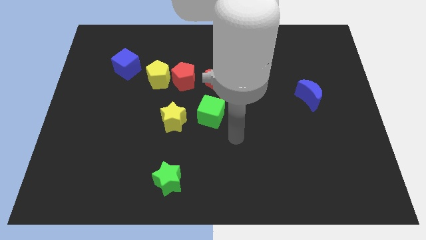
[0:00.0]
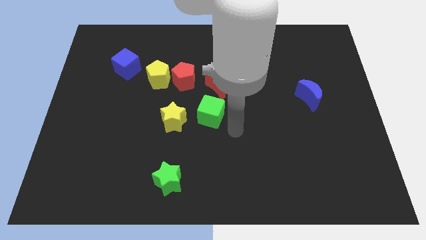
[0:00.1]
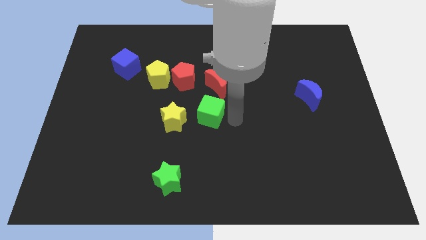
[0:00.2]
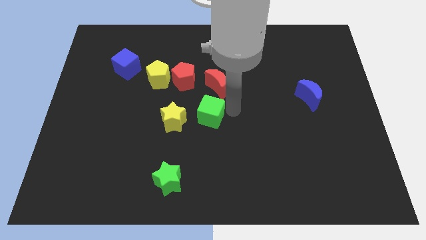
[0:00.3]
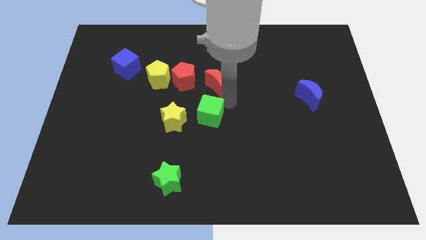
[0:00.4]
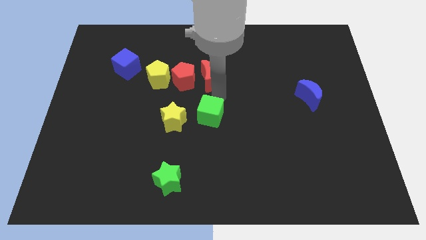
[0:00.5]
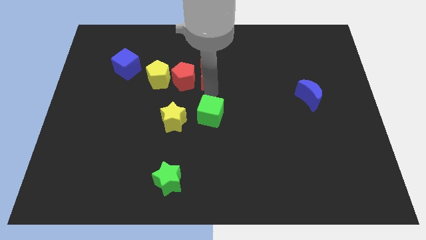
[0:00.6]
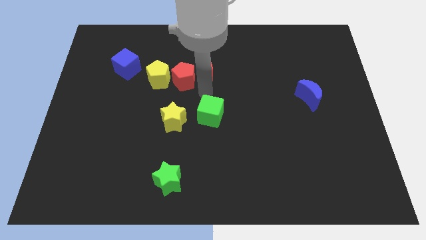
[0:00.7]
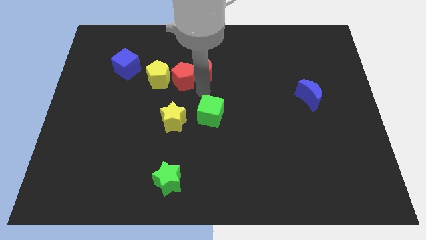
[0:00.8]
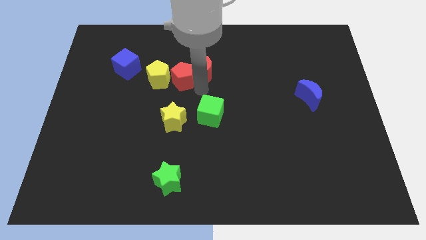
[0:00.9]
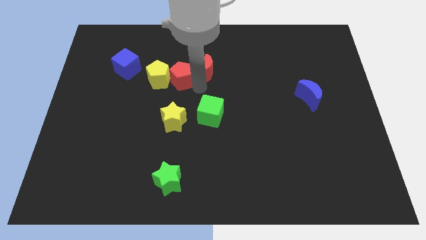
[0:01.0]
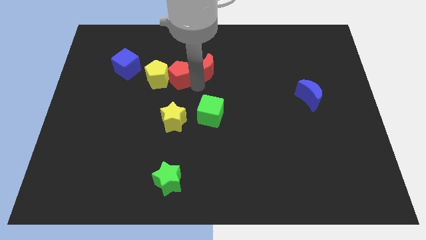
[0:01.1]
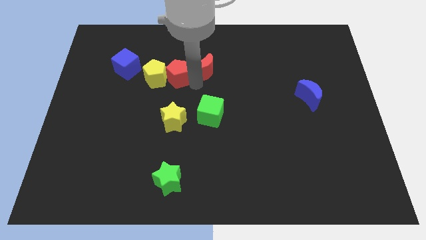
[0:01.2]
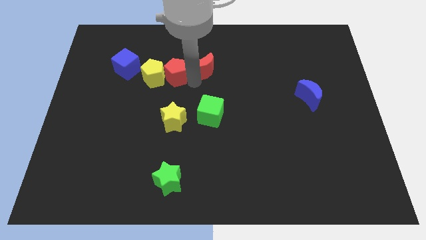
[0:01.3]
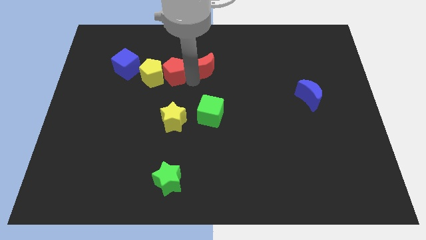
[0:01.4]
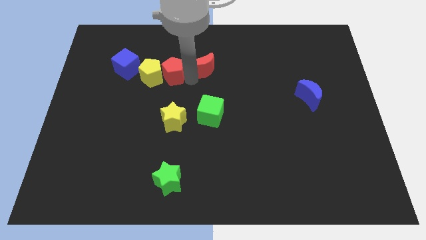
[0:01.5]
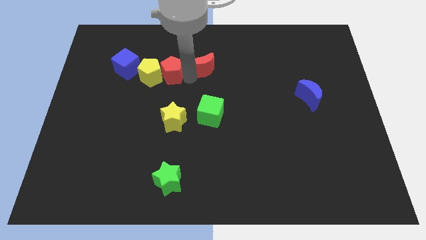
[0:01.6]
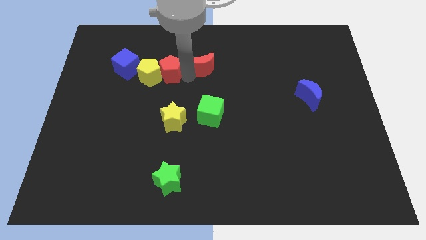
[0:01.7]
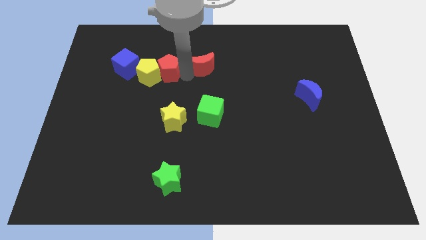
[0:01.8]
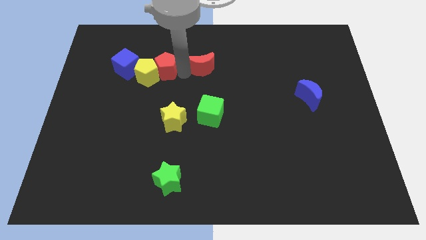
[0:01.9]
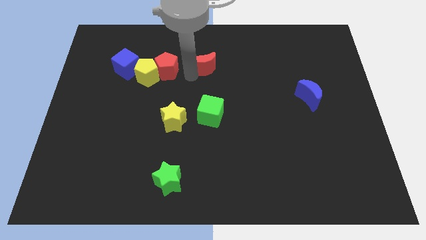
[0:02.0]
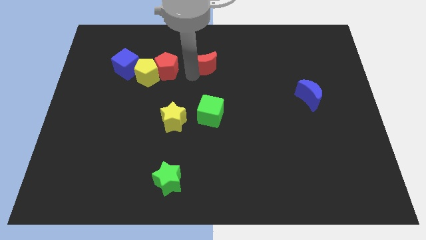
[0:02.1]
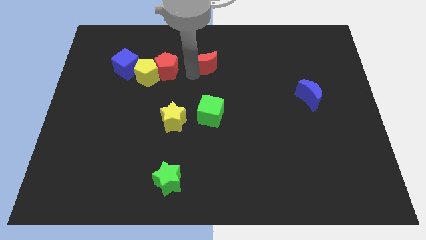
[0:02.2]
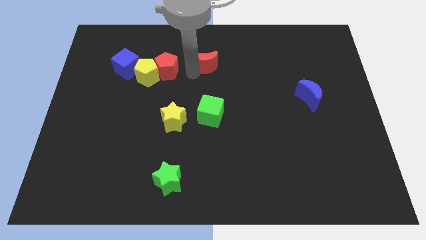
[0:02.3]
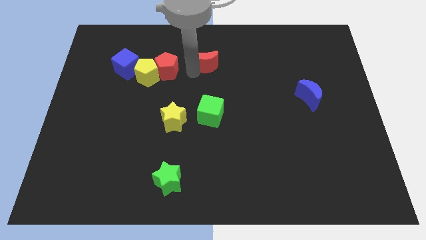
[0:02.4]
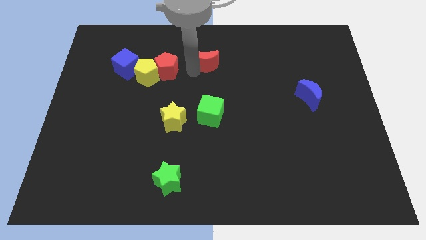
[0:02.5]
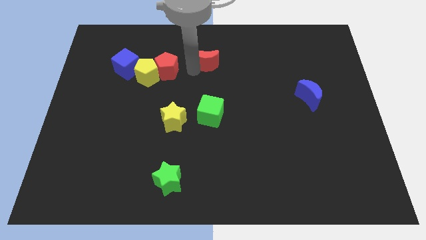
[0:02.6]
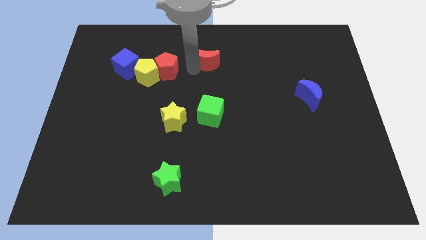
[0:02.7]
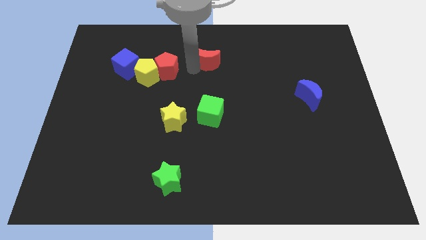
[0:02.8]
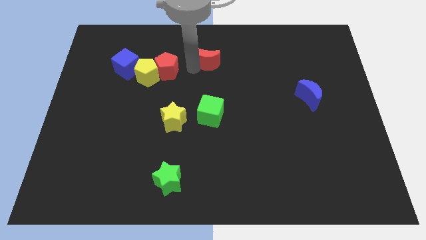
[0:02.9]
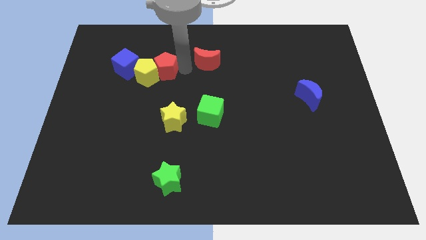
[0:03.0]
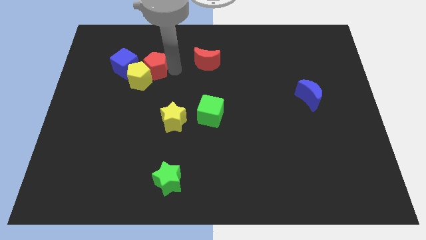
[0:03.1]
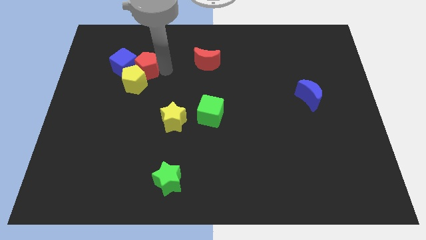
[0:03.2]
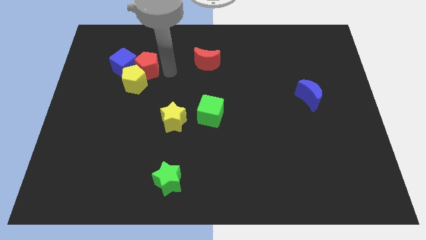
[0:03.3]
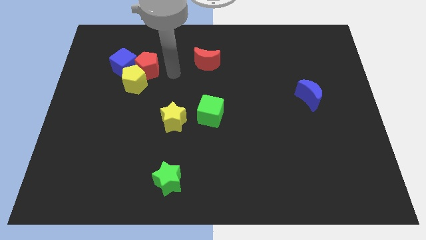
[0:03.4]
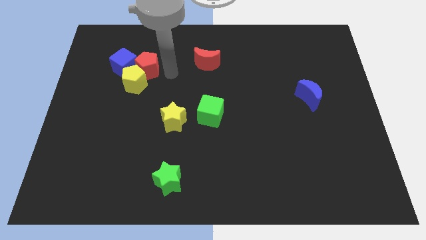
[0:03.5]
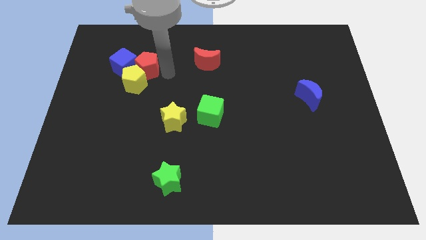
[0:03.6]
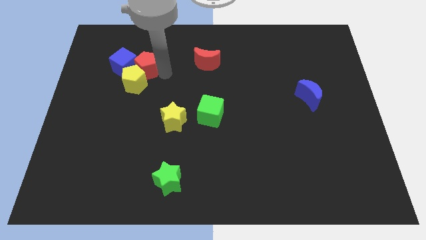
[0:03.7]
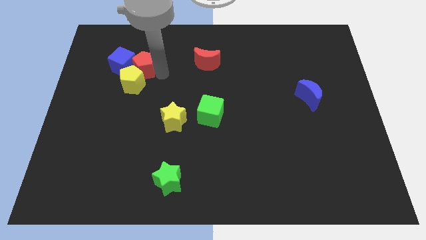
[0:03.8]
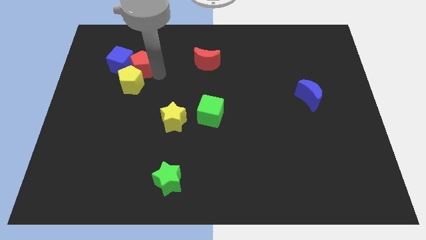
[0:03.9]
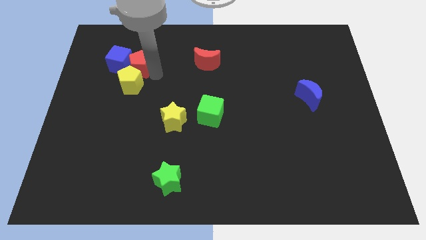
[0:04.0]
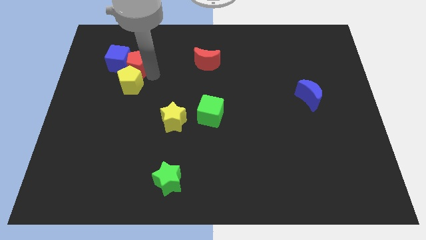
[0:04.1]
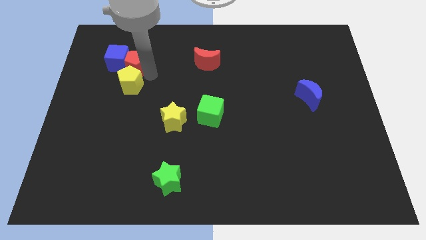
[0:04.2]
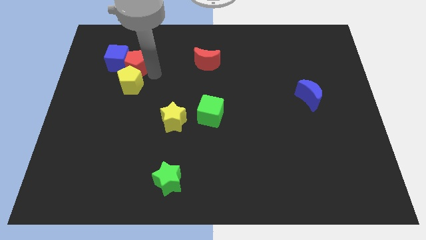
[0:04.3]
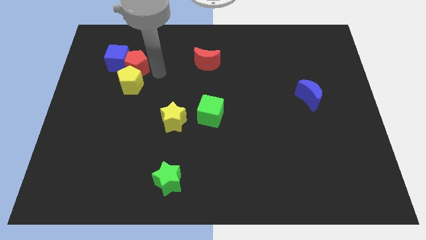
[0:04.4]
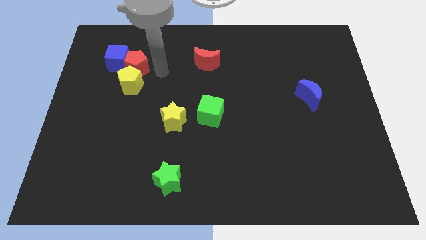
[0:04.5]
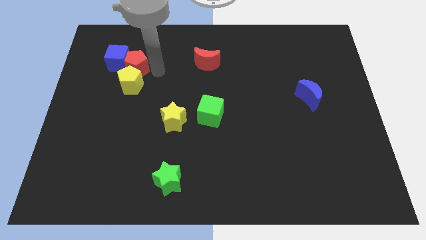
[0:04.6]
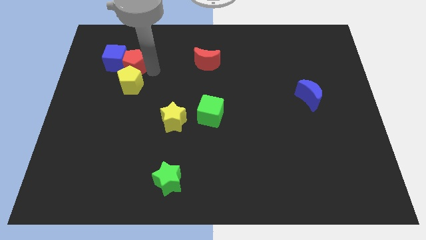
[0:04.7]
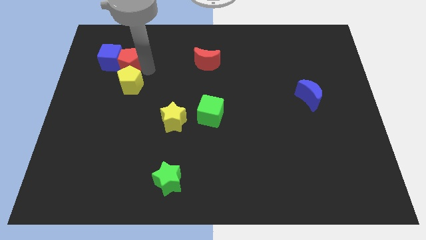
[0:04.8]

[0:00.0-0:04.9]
move the red pentagon away from the yellow pentagon and red moon

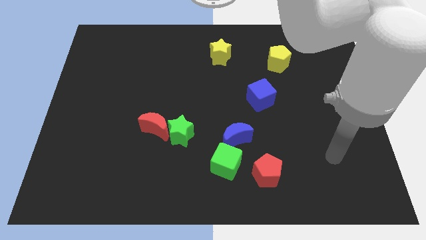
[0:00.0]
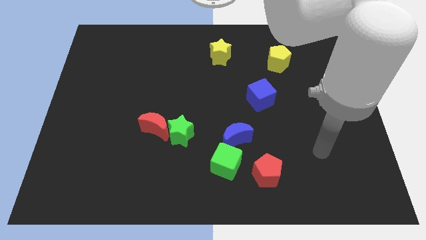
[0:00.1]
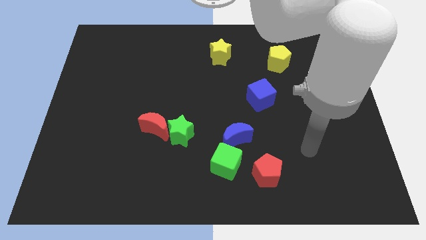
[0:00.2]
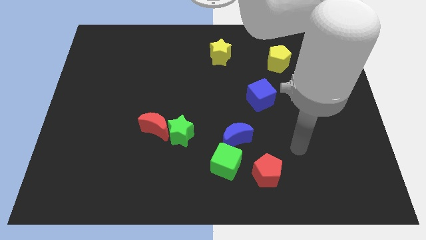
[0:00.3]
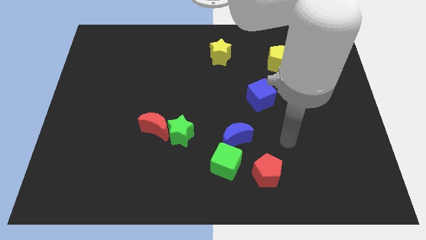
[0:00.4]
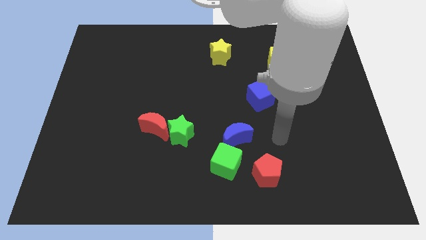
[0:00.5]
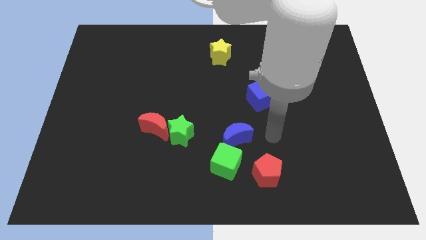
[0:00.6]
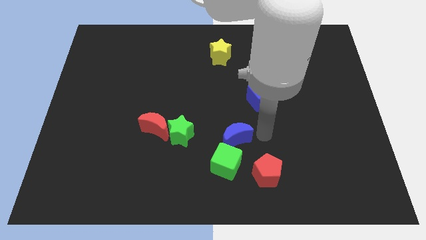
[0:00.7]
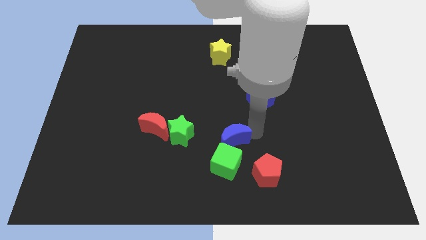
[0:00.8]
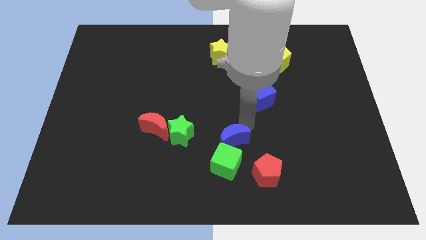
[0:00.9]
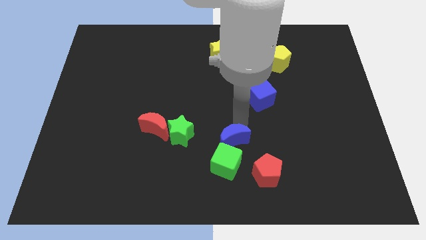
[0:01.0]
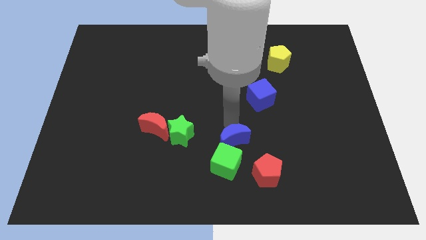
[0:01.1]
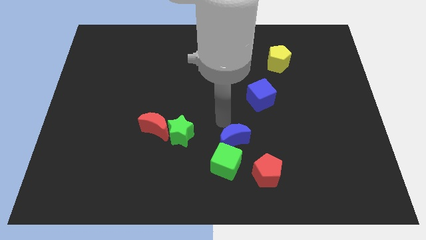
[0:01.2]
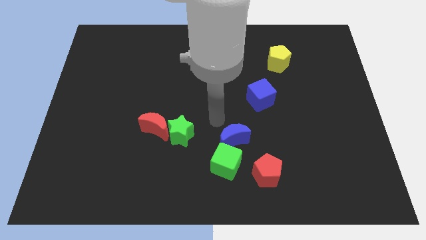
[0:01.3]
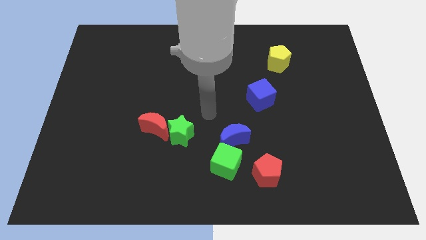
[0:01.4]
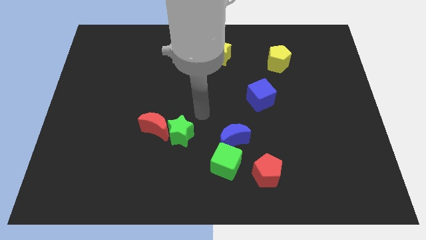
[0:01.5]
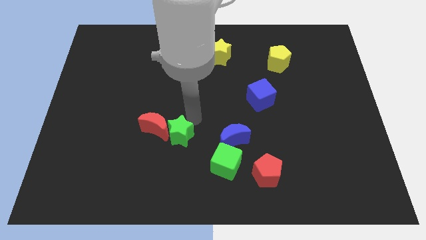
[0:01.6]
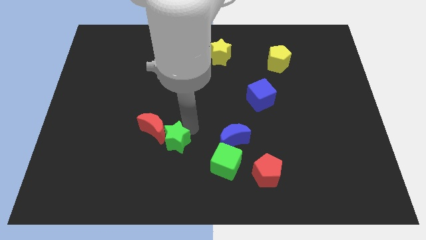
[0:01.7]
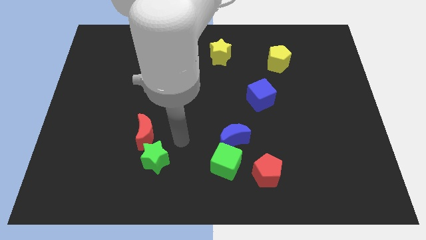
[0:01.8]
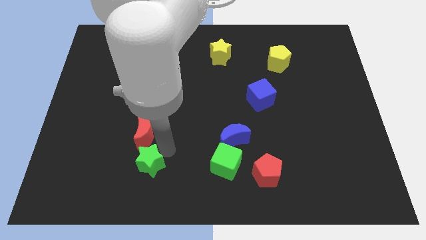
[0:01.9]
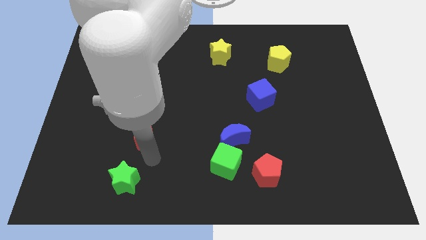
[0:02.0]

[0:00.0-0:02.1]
separate the red moon from the green star

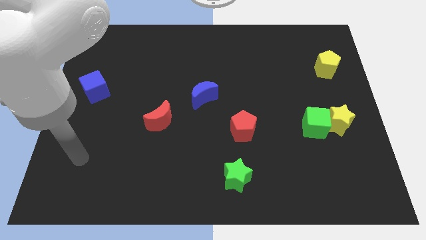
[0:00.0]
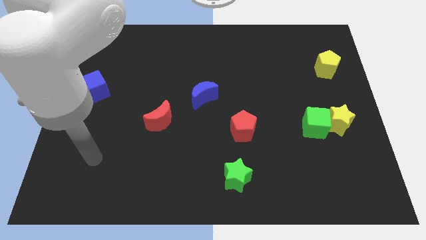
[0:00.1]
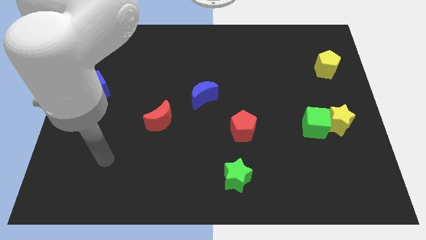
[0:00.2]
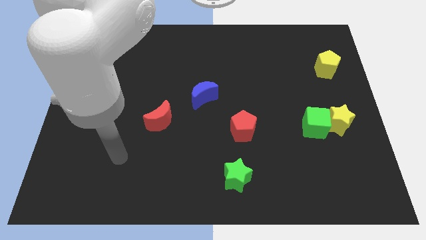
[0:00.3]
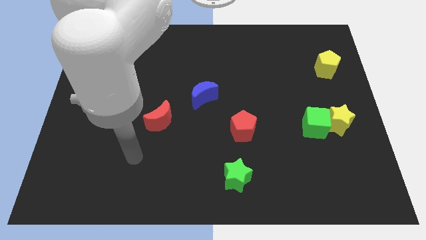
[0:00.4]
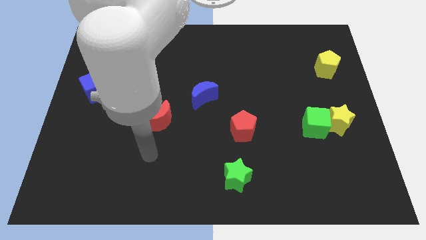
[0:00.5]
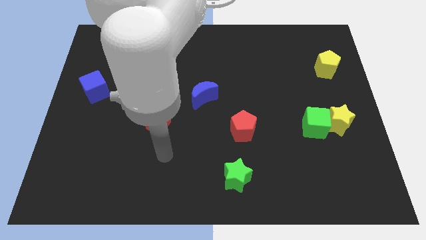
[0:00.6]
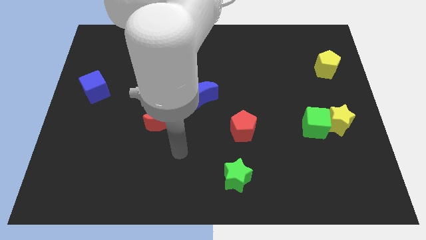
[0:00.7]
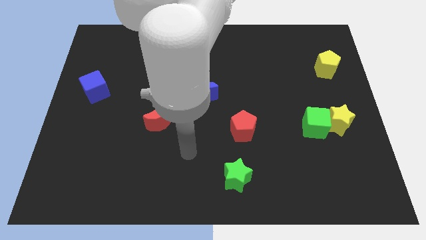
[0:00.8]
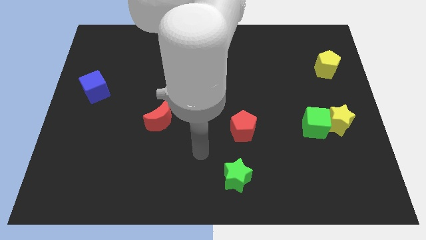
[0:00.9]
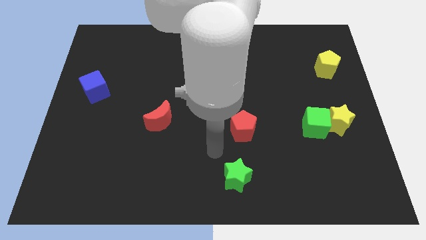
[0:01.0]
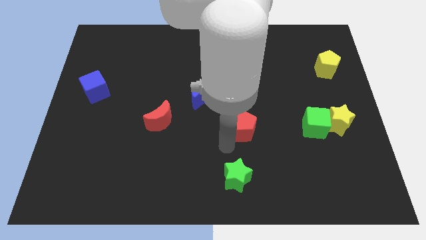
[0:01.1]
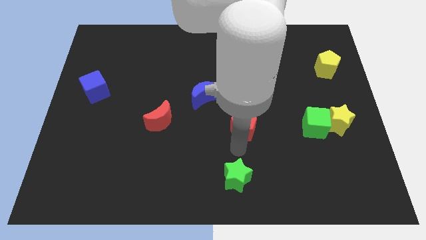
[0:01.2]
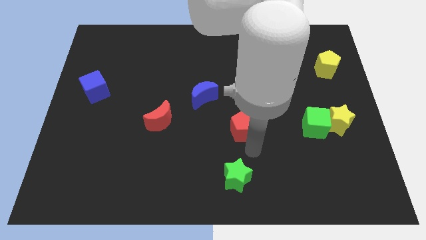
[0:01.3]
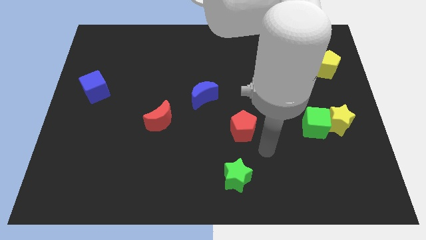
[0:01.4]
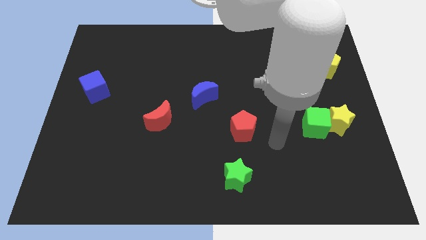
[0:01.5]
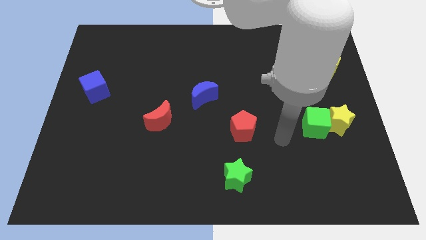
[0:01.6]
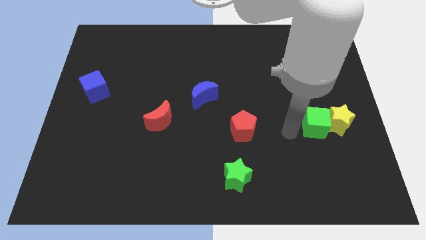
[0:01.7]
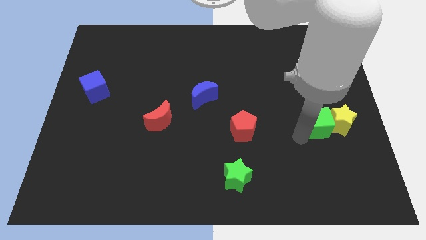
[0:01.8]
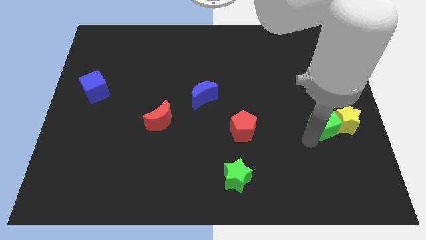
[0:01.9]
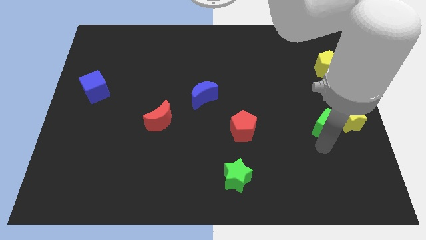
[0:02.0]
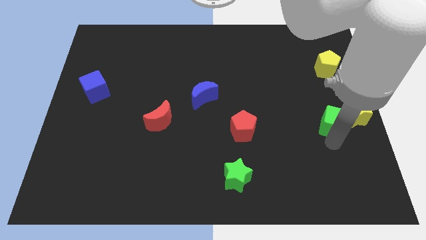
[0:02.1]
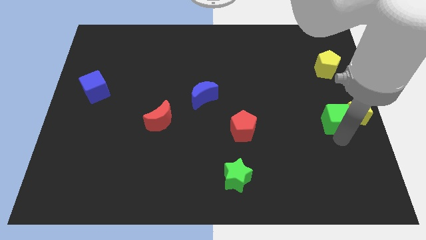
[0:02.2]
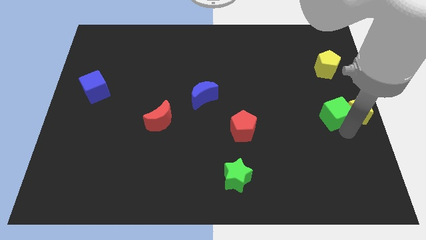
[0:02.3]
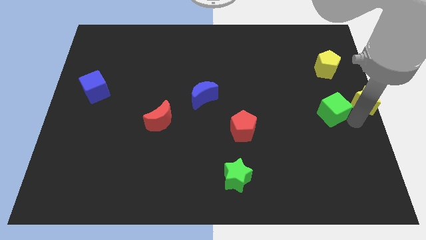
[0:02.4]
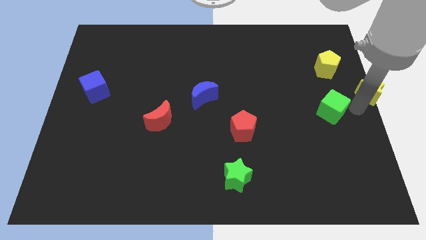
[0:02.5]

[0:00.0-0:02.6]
move the green cube away from the yellow star
